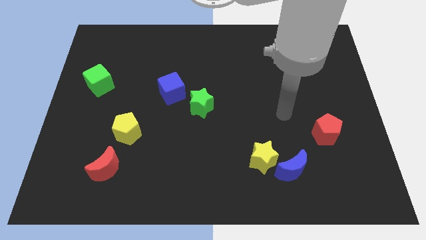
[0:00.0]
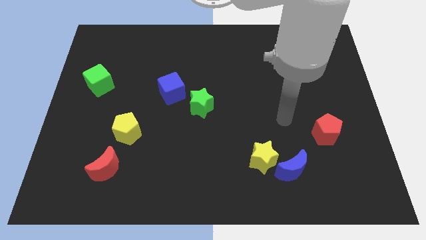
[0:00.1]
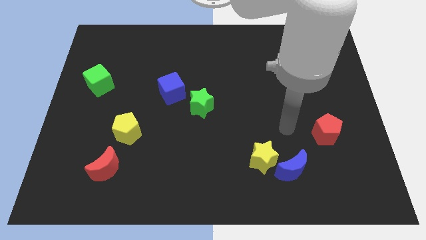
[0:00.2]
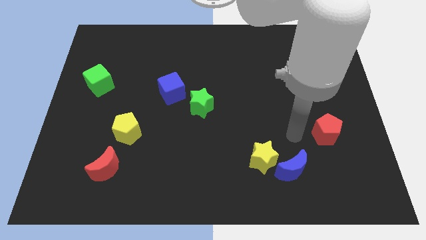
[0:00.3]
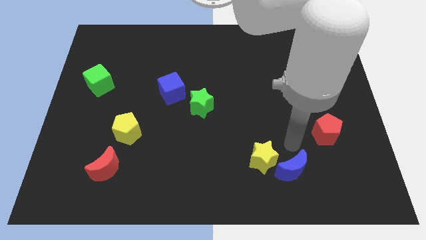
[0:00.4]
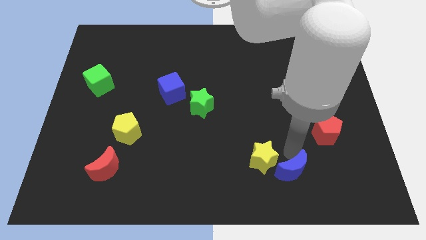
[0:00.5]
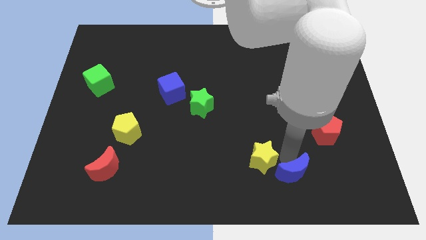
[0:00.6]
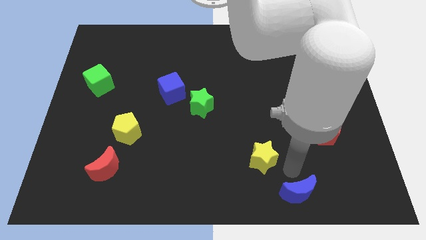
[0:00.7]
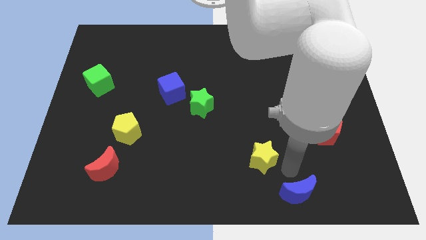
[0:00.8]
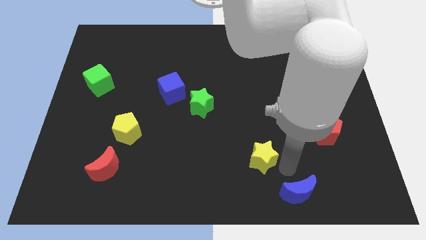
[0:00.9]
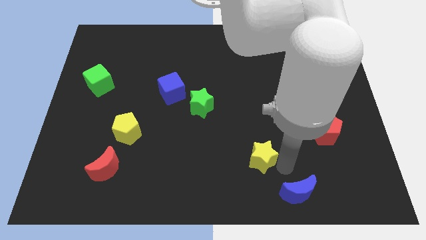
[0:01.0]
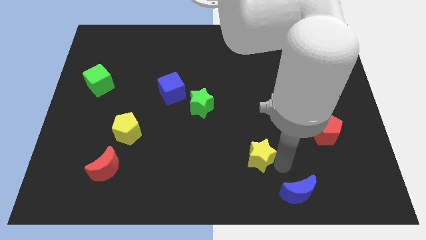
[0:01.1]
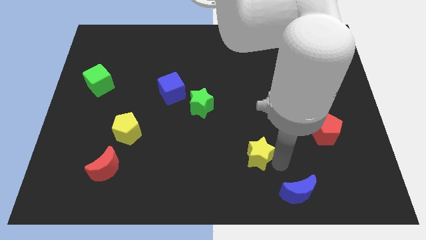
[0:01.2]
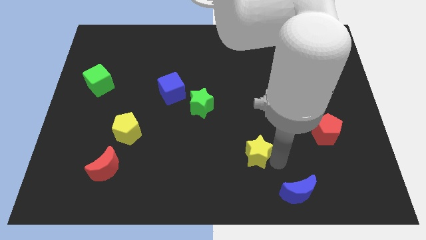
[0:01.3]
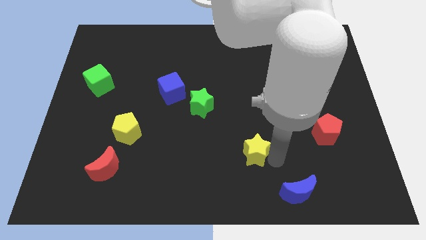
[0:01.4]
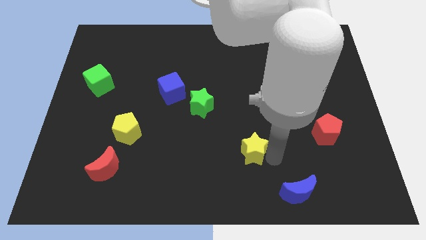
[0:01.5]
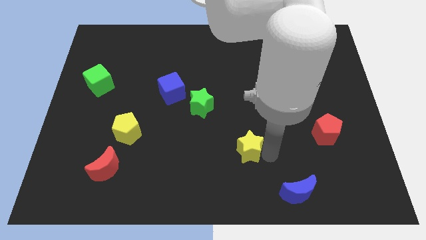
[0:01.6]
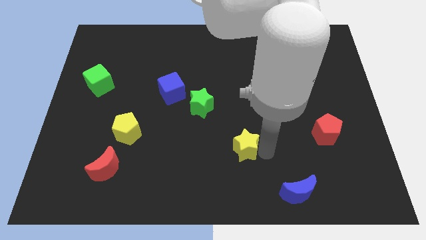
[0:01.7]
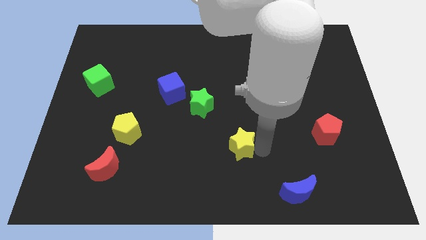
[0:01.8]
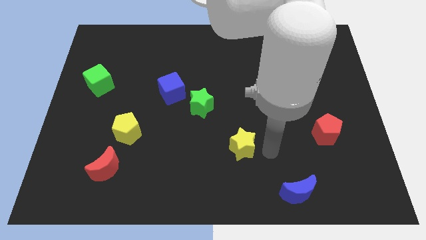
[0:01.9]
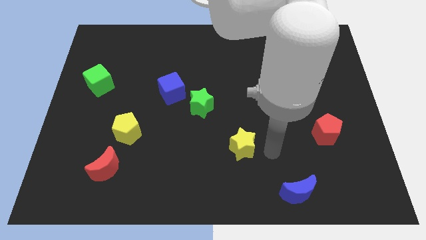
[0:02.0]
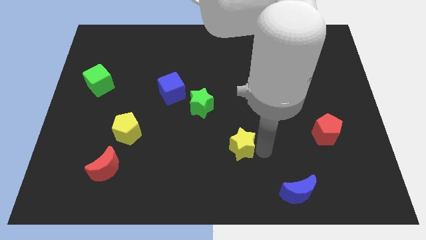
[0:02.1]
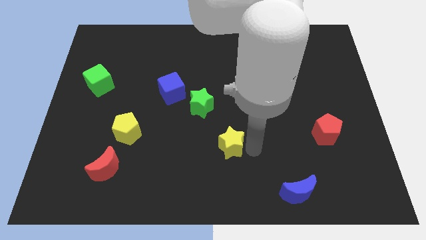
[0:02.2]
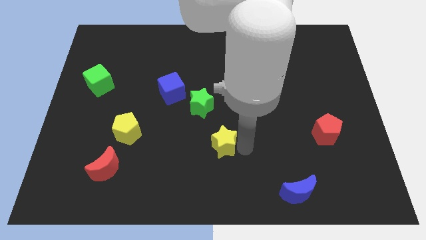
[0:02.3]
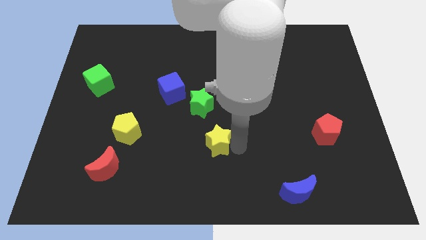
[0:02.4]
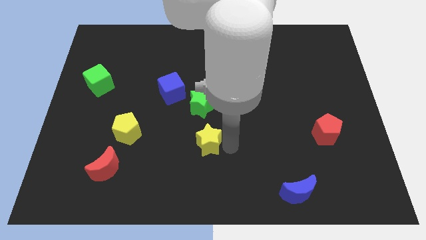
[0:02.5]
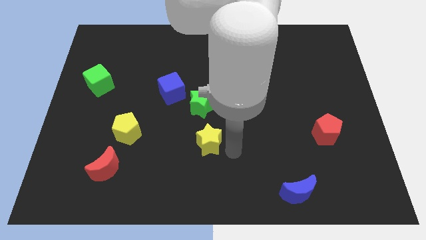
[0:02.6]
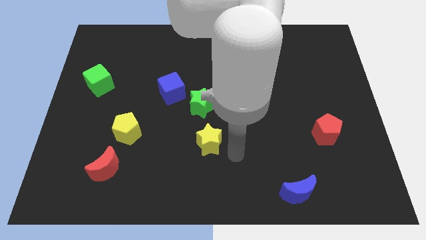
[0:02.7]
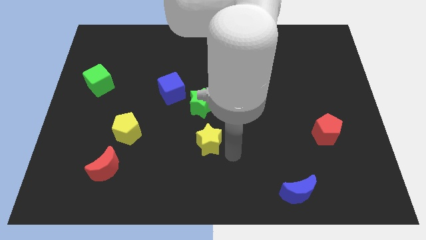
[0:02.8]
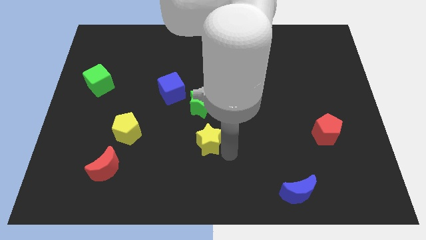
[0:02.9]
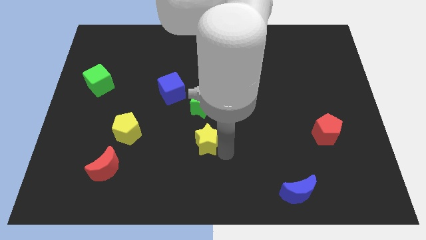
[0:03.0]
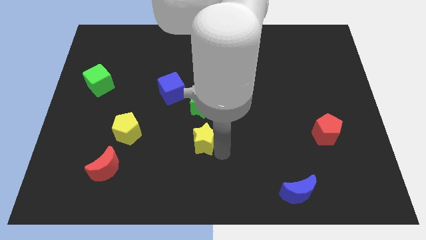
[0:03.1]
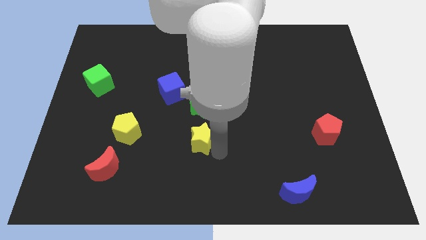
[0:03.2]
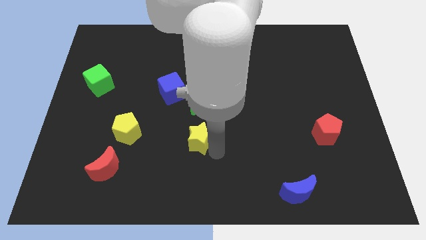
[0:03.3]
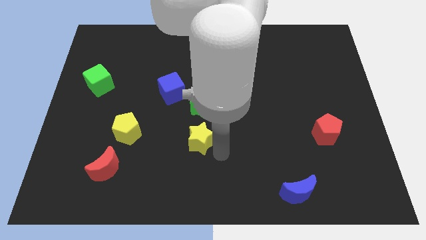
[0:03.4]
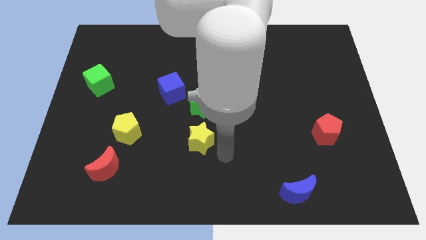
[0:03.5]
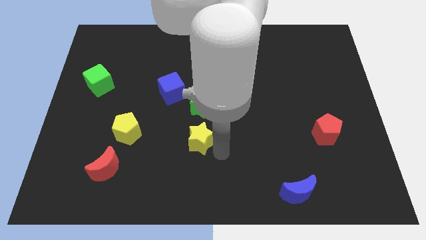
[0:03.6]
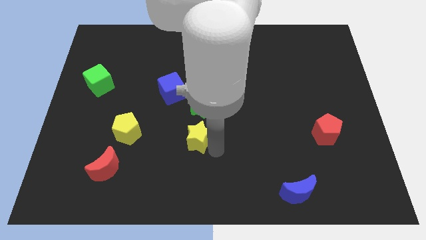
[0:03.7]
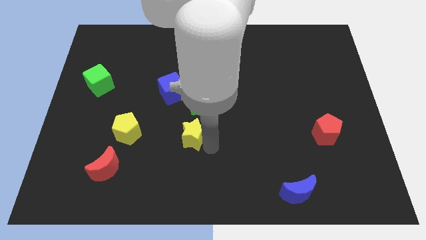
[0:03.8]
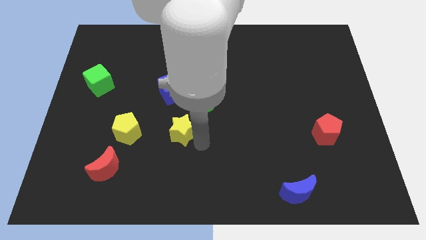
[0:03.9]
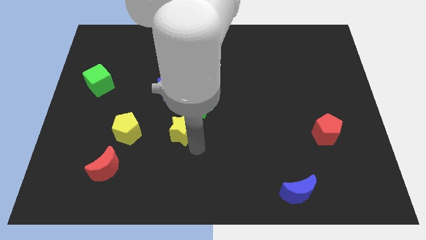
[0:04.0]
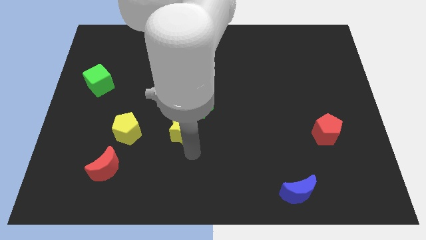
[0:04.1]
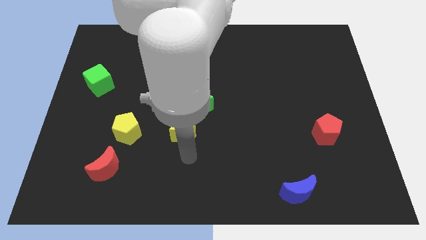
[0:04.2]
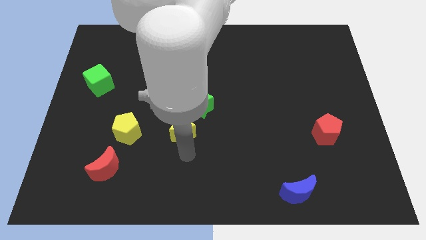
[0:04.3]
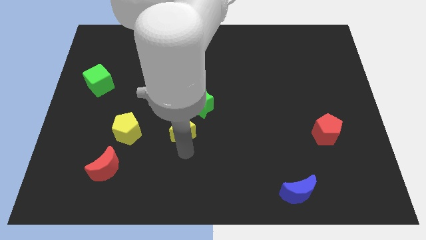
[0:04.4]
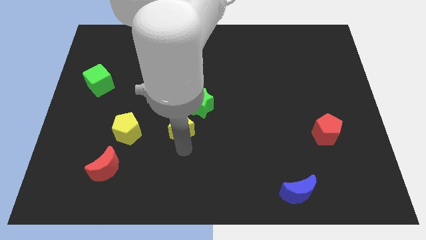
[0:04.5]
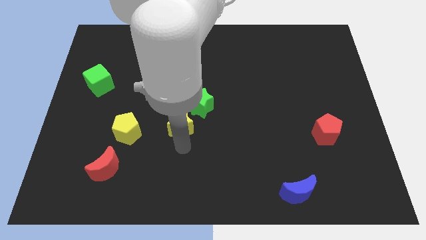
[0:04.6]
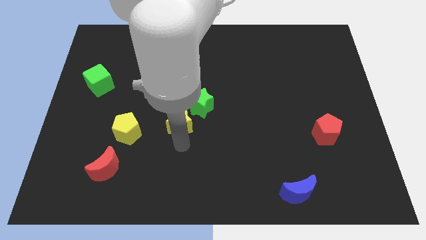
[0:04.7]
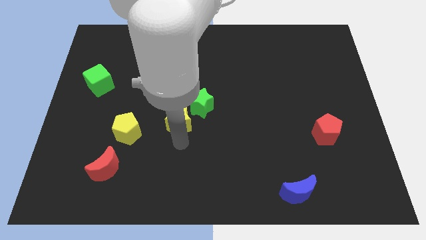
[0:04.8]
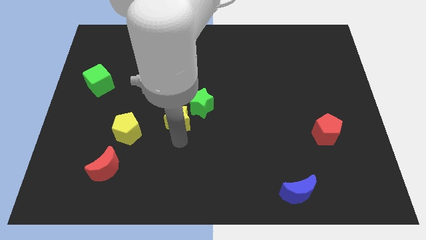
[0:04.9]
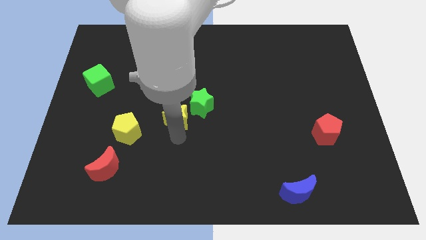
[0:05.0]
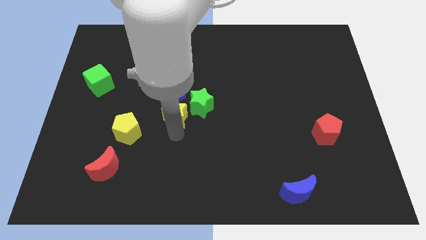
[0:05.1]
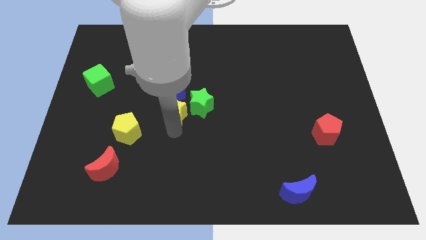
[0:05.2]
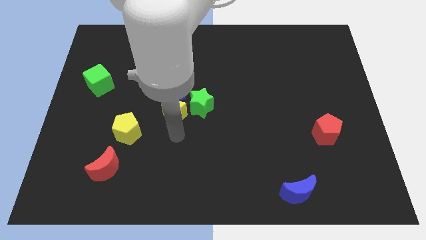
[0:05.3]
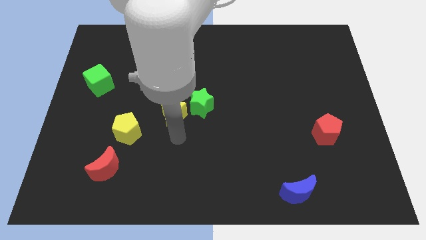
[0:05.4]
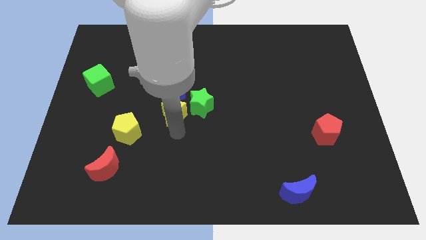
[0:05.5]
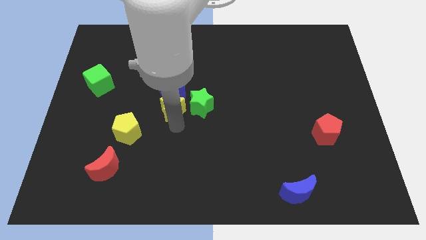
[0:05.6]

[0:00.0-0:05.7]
move the yellow star close to the blue cube

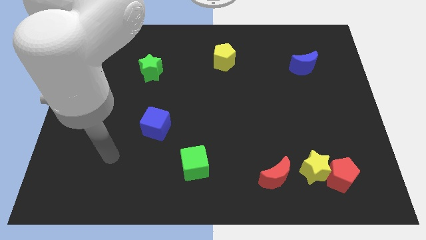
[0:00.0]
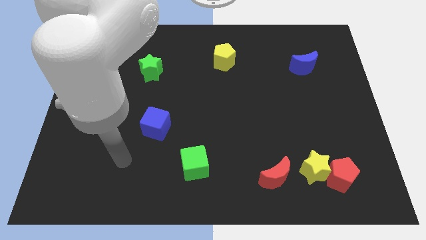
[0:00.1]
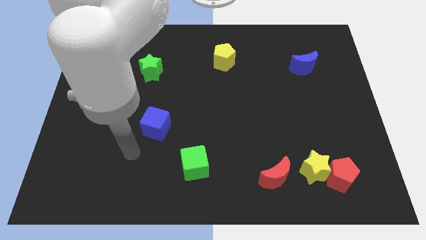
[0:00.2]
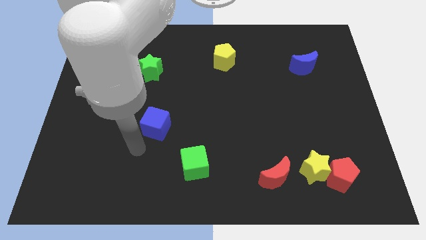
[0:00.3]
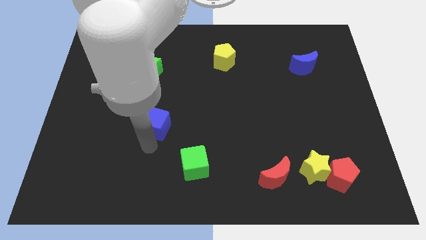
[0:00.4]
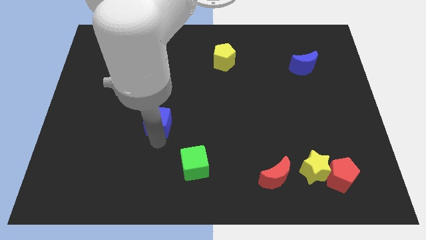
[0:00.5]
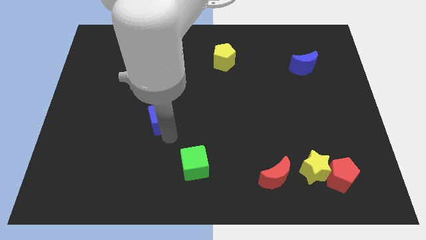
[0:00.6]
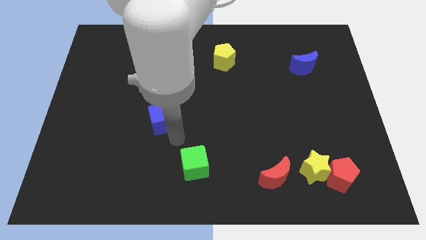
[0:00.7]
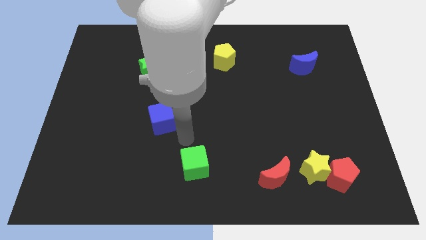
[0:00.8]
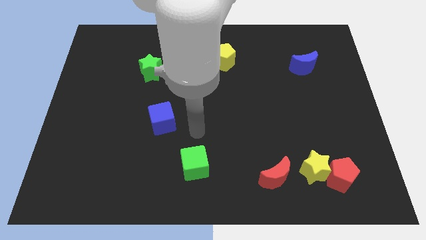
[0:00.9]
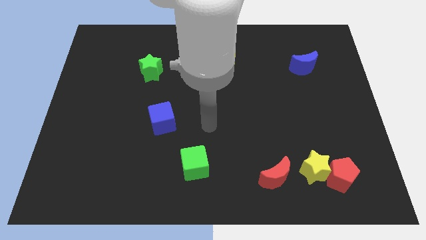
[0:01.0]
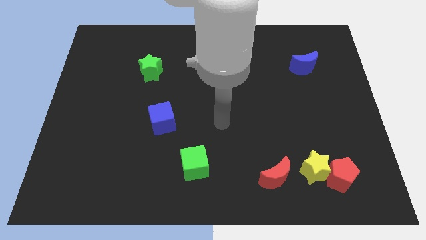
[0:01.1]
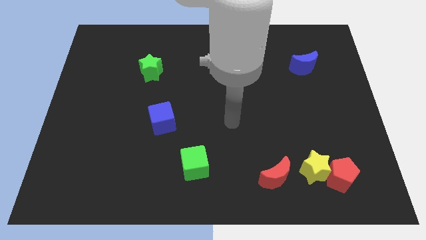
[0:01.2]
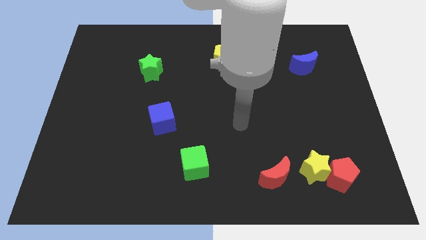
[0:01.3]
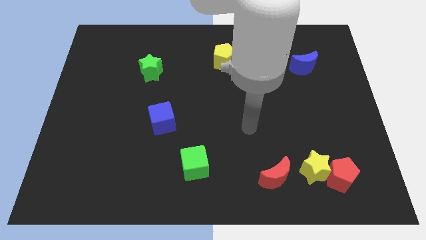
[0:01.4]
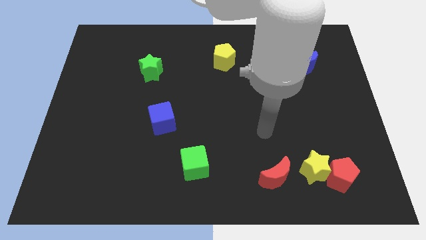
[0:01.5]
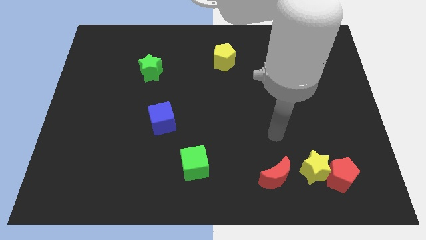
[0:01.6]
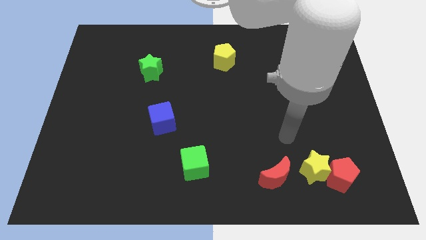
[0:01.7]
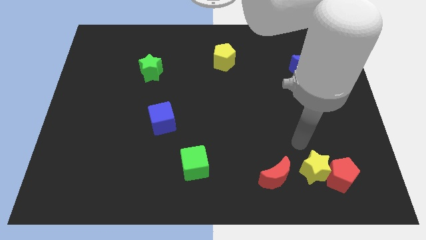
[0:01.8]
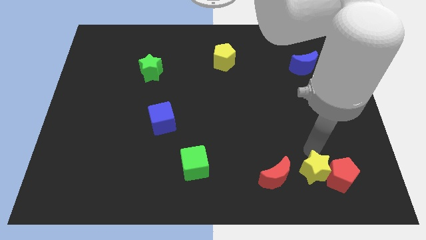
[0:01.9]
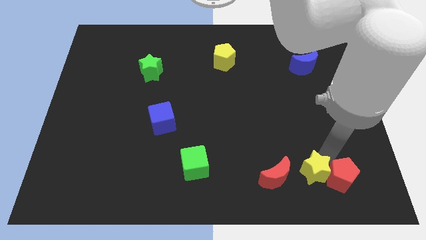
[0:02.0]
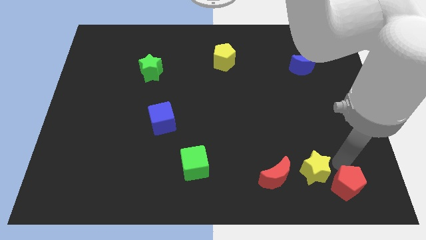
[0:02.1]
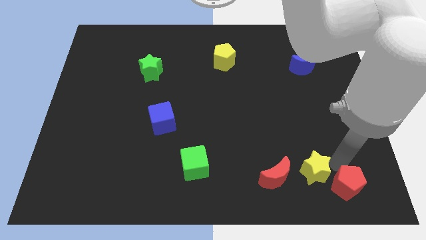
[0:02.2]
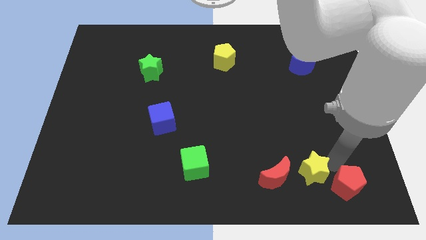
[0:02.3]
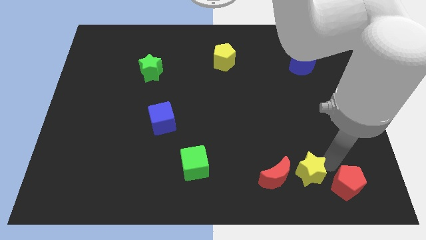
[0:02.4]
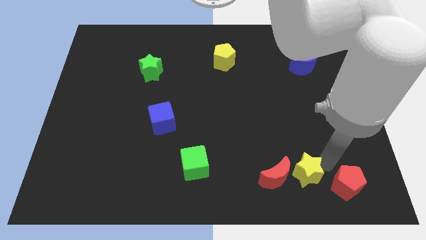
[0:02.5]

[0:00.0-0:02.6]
push the yellow star to the red moon
